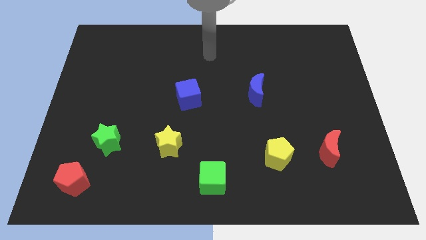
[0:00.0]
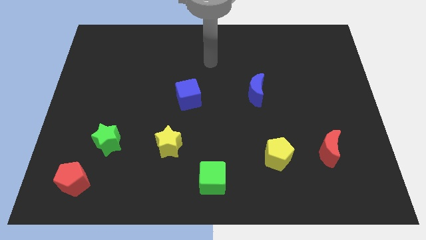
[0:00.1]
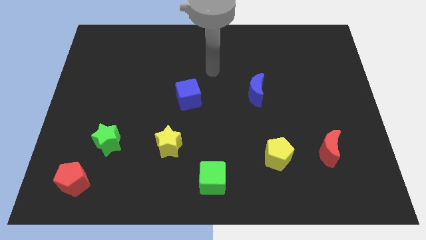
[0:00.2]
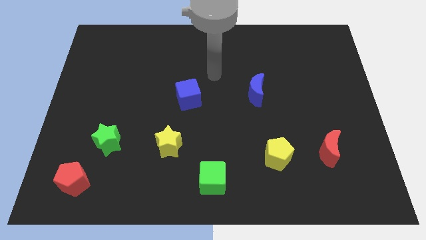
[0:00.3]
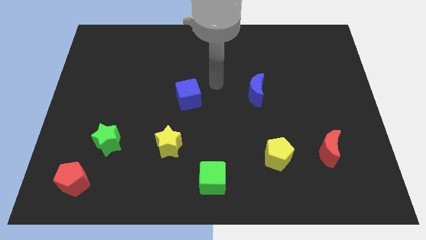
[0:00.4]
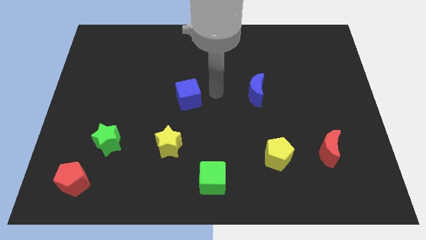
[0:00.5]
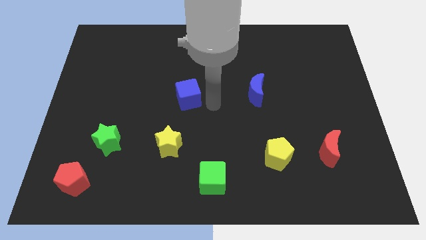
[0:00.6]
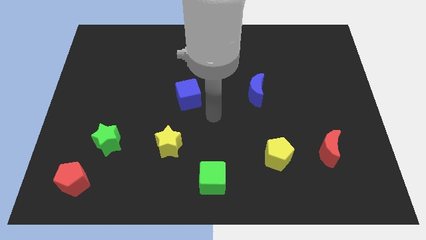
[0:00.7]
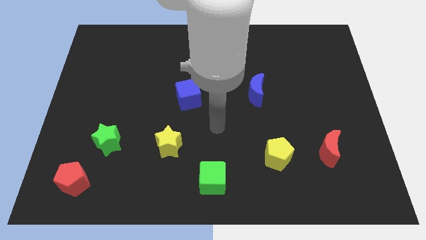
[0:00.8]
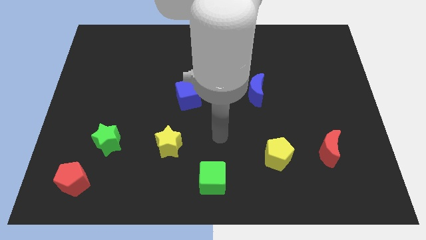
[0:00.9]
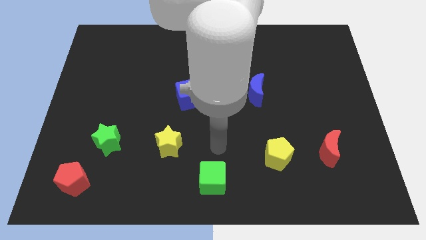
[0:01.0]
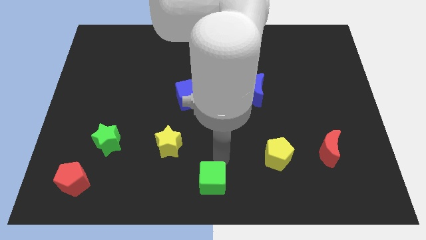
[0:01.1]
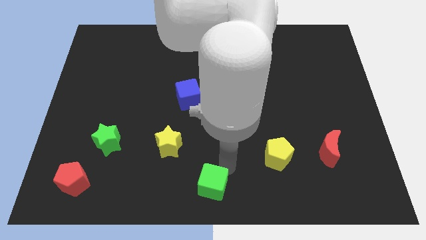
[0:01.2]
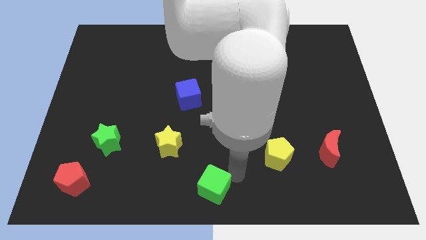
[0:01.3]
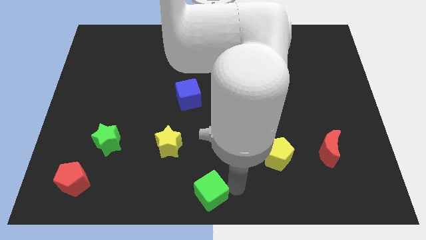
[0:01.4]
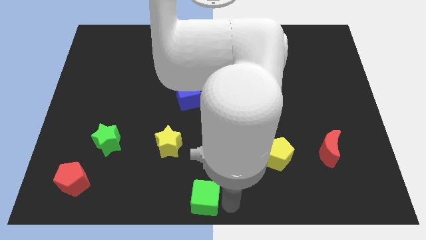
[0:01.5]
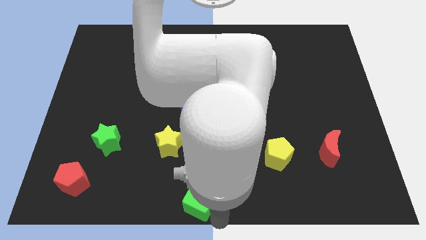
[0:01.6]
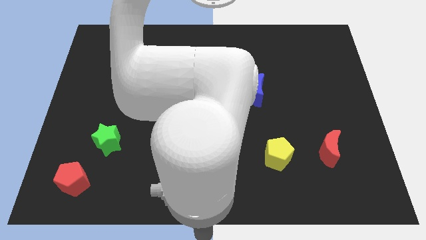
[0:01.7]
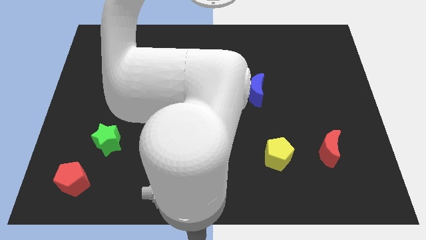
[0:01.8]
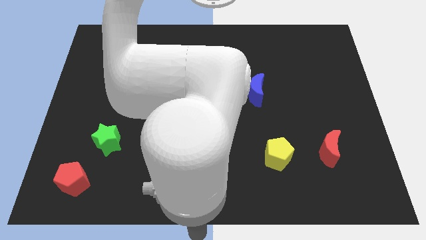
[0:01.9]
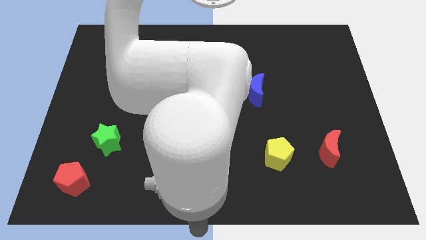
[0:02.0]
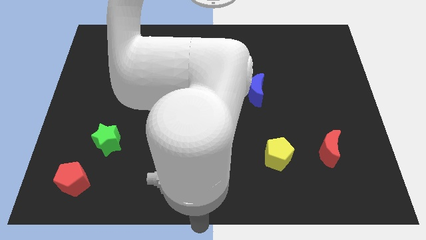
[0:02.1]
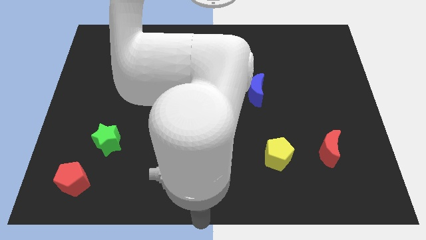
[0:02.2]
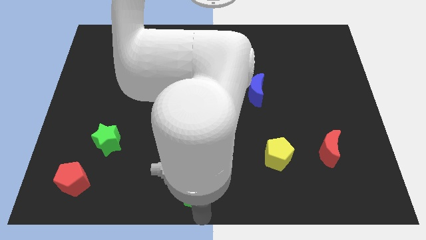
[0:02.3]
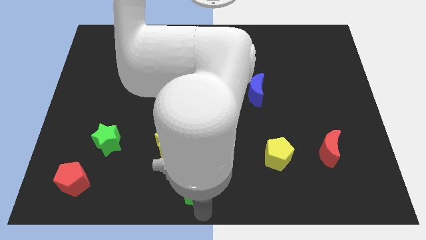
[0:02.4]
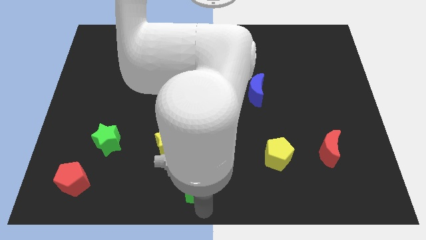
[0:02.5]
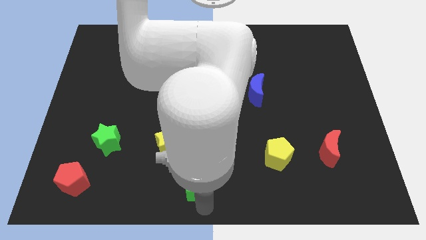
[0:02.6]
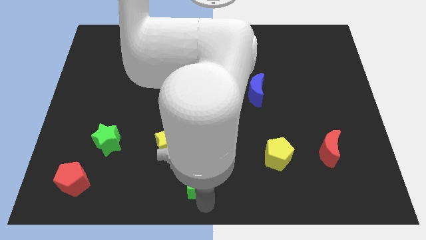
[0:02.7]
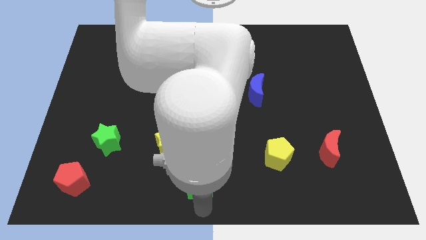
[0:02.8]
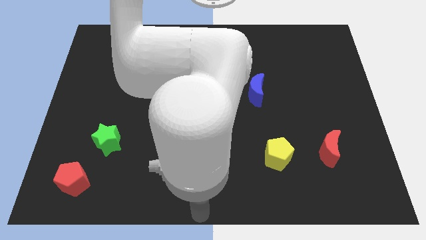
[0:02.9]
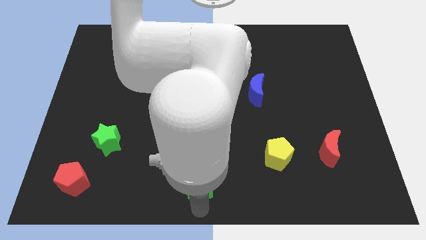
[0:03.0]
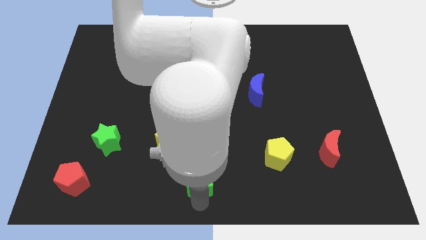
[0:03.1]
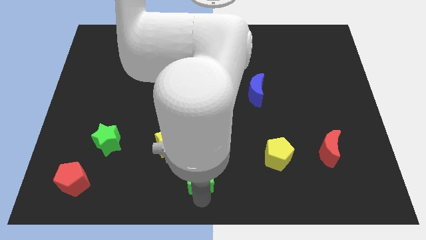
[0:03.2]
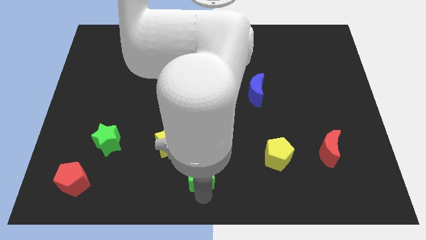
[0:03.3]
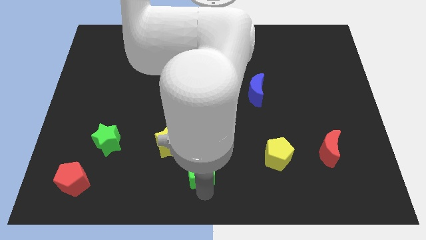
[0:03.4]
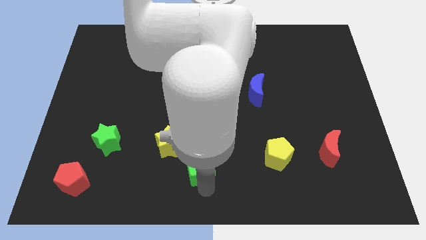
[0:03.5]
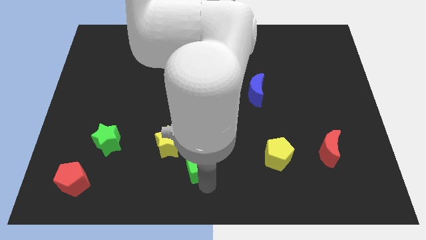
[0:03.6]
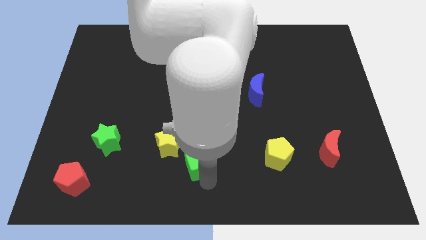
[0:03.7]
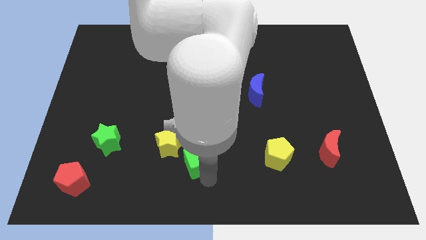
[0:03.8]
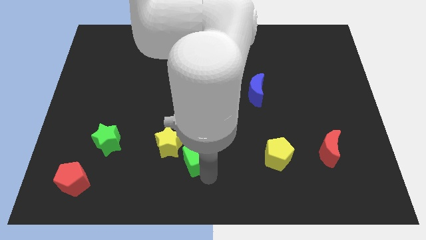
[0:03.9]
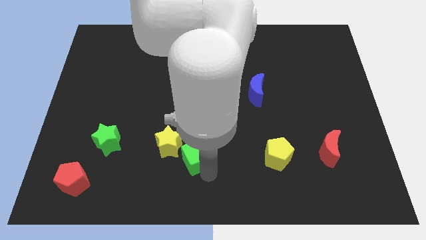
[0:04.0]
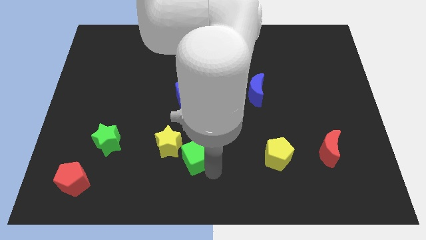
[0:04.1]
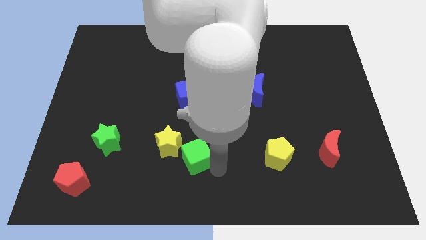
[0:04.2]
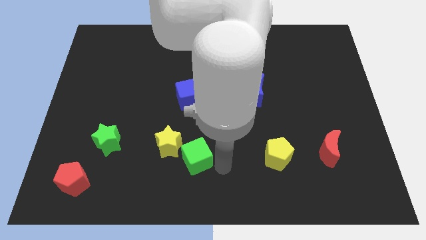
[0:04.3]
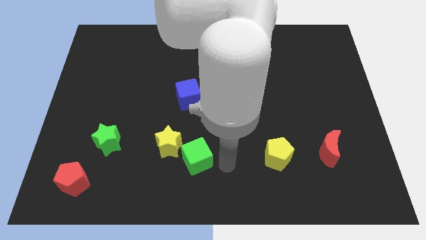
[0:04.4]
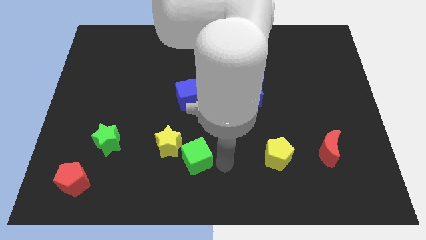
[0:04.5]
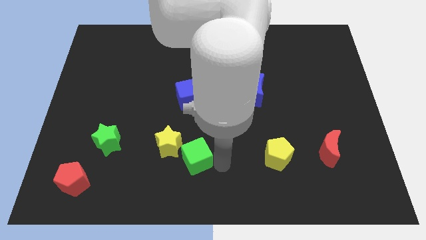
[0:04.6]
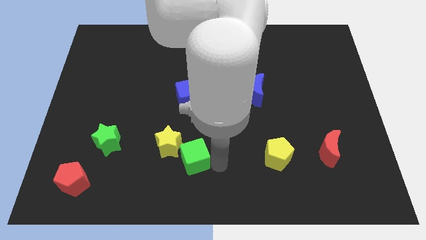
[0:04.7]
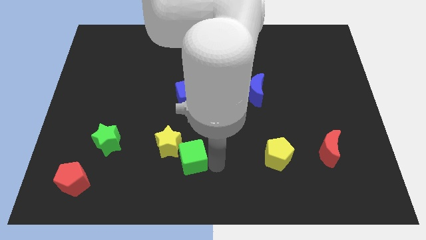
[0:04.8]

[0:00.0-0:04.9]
put the green cube towards the yellow star

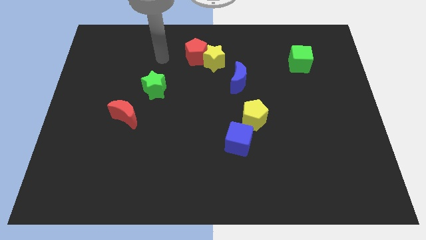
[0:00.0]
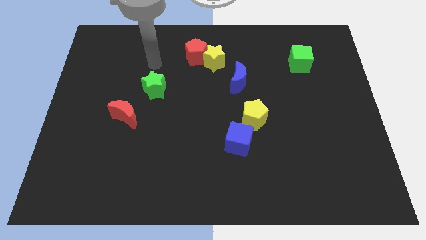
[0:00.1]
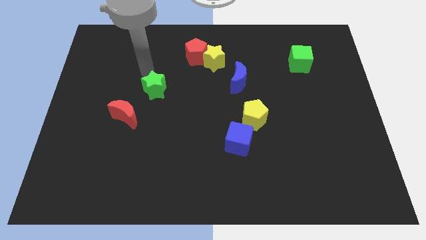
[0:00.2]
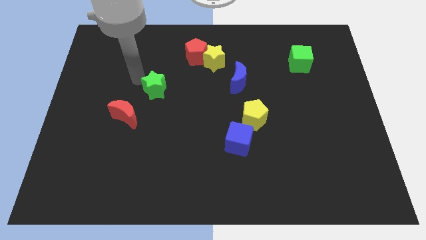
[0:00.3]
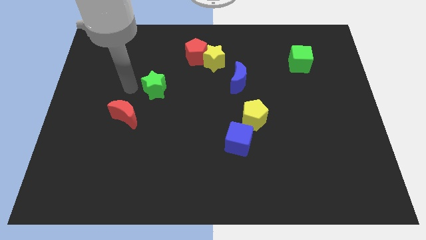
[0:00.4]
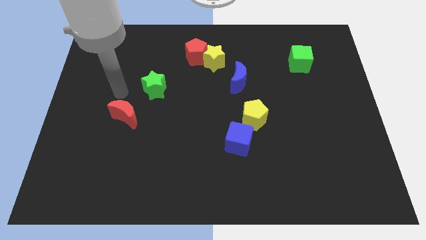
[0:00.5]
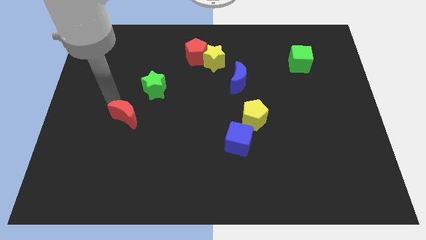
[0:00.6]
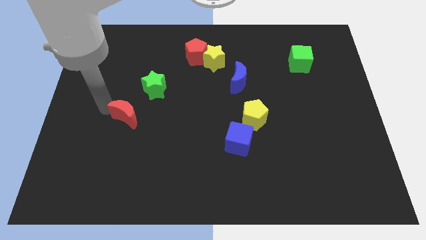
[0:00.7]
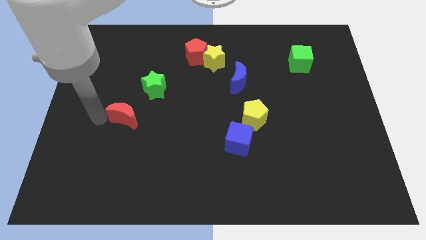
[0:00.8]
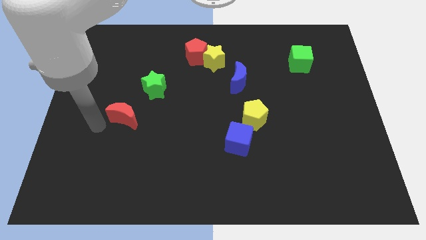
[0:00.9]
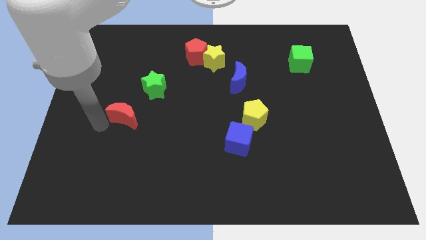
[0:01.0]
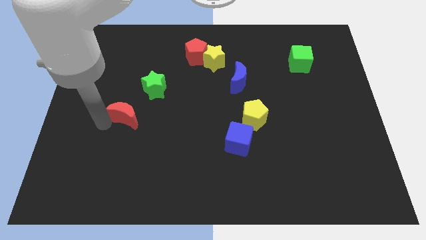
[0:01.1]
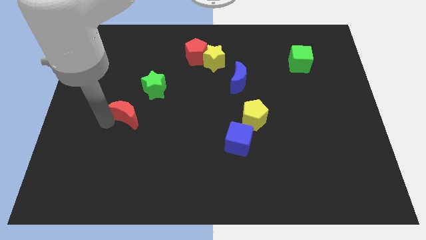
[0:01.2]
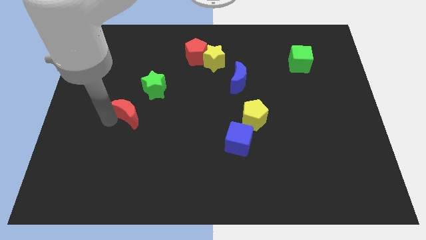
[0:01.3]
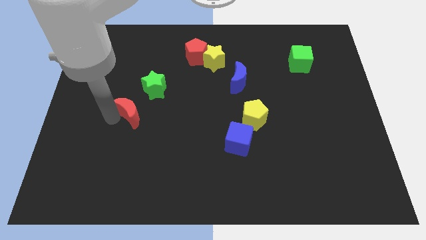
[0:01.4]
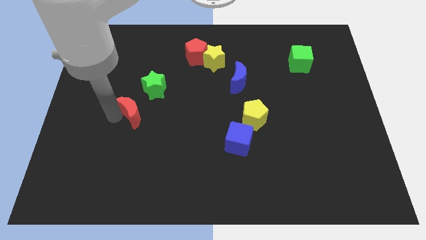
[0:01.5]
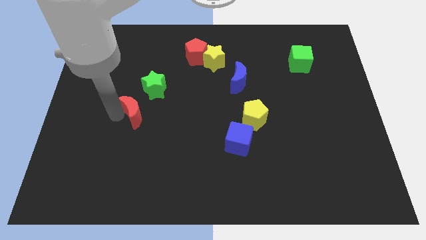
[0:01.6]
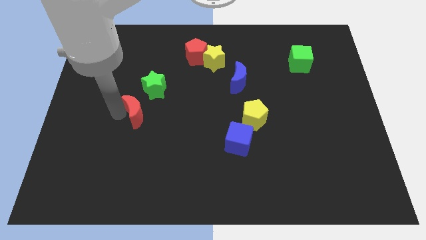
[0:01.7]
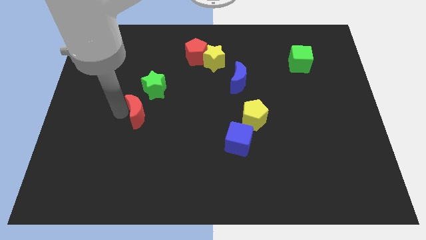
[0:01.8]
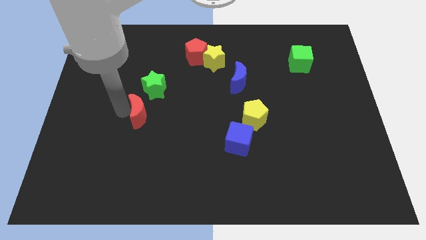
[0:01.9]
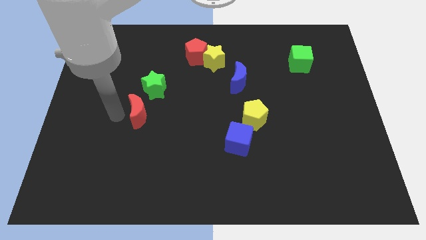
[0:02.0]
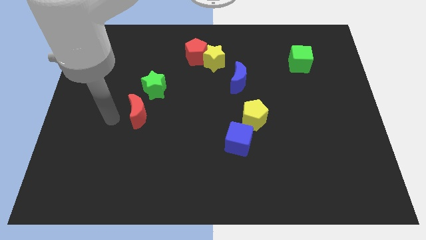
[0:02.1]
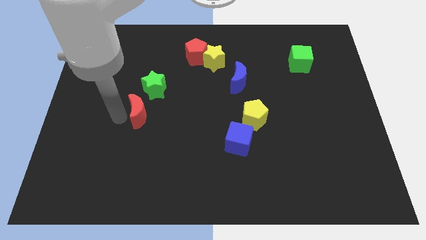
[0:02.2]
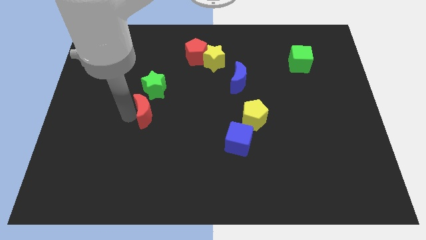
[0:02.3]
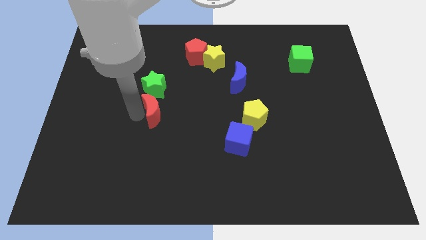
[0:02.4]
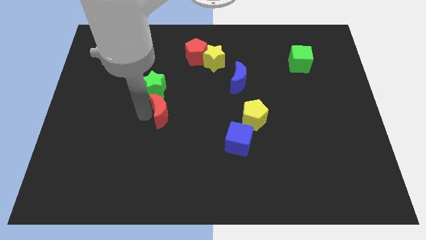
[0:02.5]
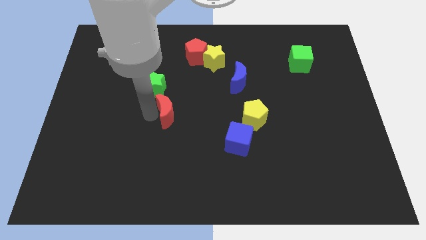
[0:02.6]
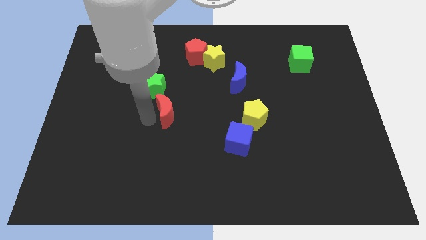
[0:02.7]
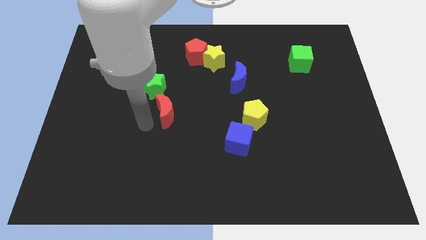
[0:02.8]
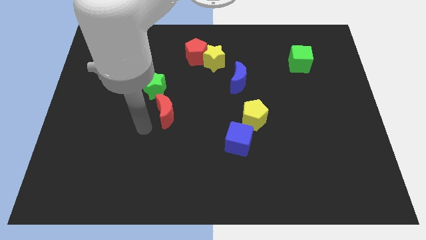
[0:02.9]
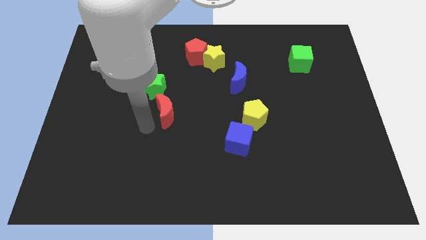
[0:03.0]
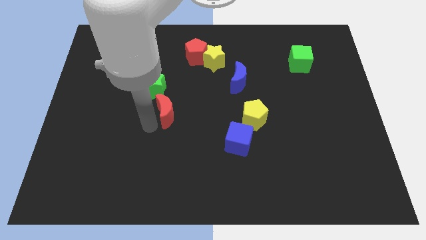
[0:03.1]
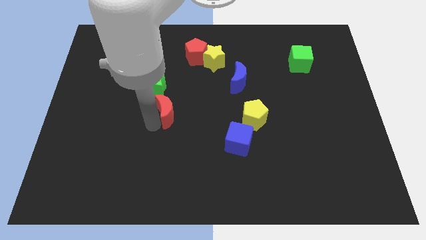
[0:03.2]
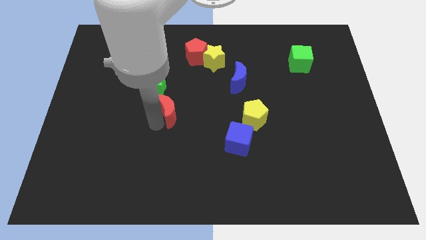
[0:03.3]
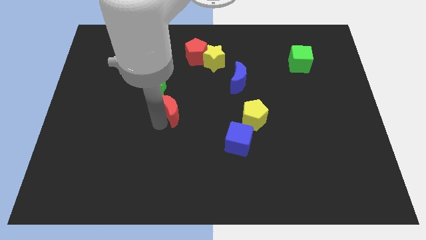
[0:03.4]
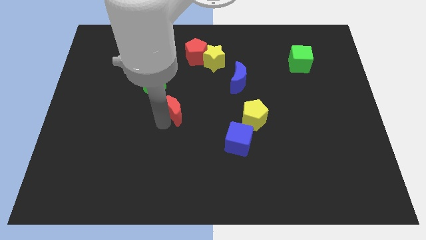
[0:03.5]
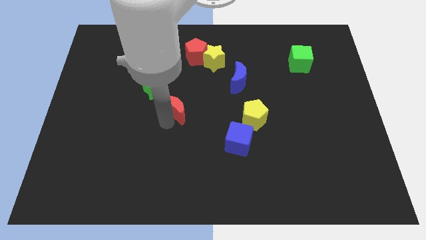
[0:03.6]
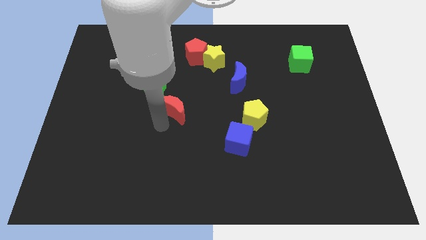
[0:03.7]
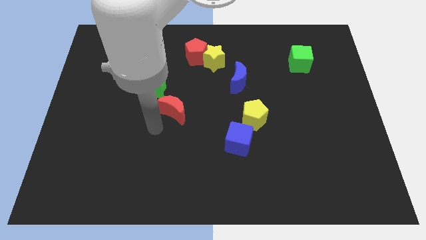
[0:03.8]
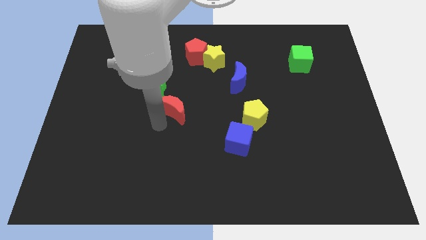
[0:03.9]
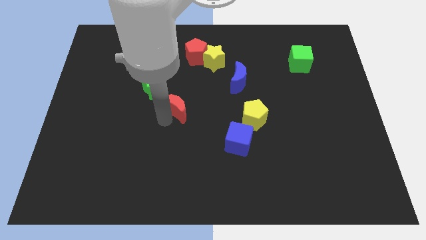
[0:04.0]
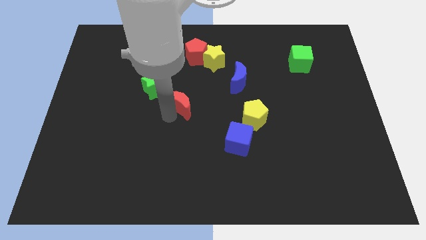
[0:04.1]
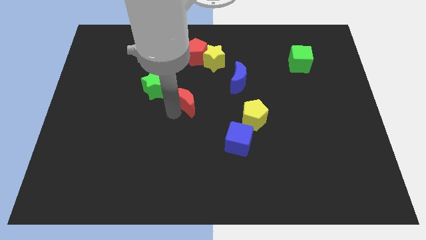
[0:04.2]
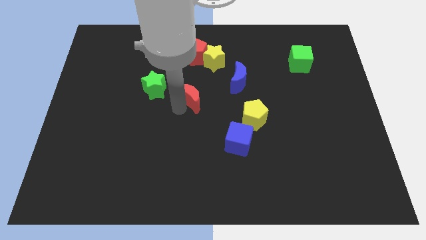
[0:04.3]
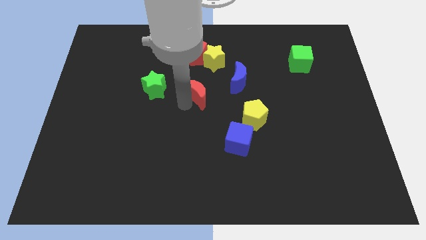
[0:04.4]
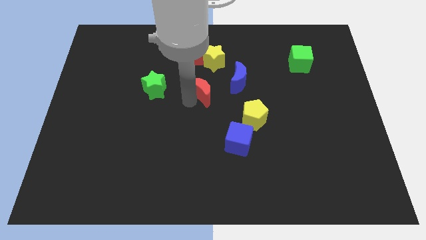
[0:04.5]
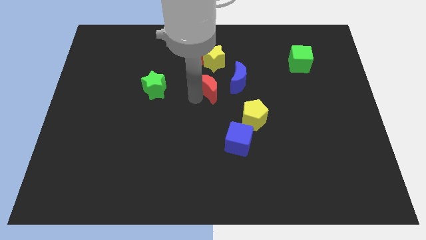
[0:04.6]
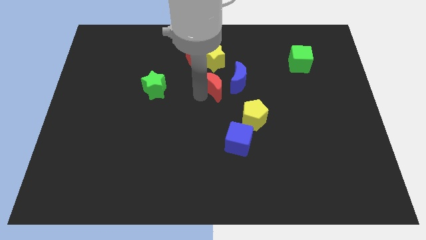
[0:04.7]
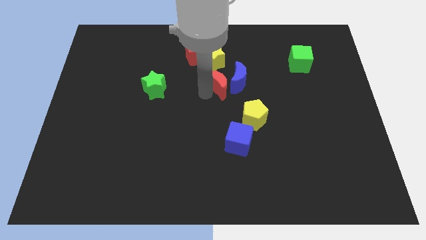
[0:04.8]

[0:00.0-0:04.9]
put the red moon next to the blue moon
